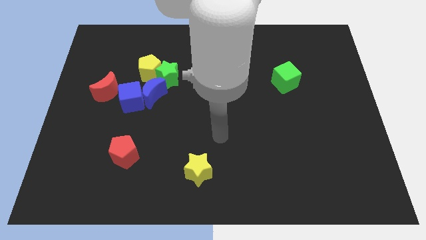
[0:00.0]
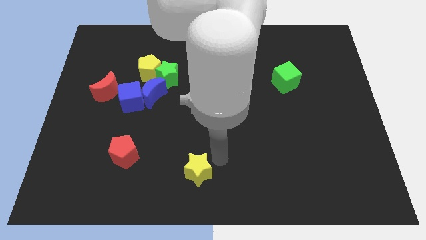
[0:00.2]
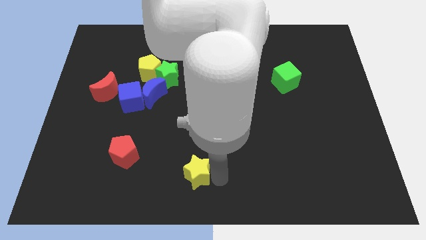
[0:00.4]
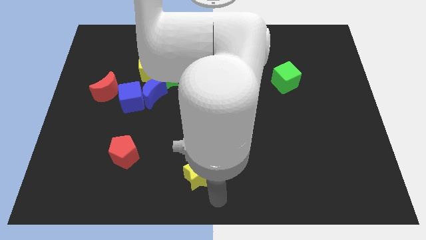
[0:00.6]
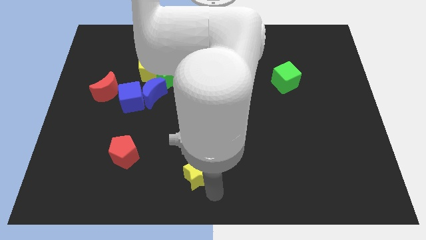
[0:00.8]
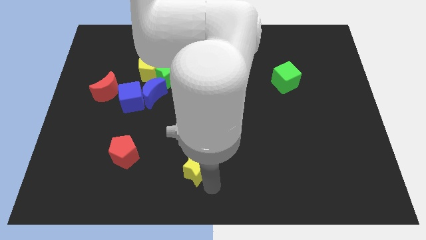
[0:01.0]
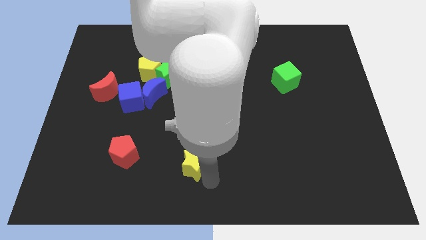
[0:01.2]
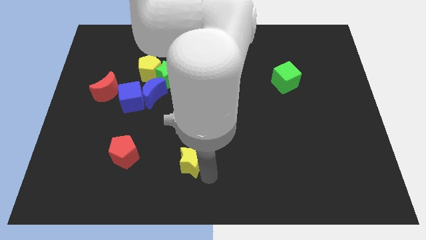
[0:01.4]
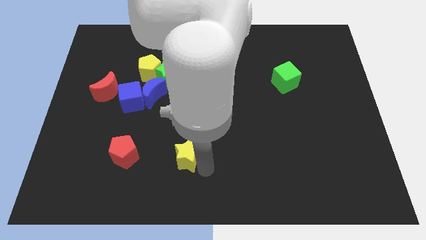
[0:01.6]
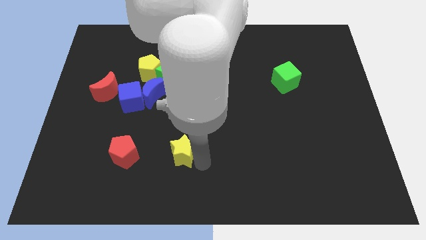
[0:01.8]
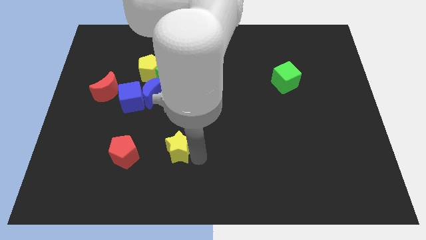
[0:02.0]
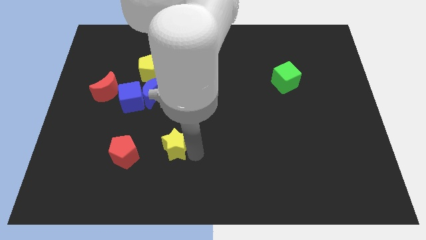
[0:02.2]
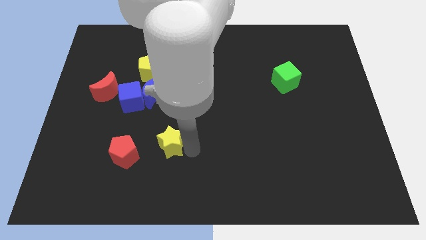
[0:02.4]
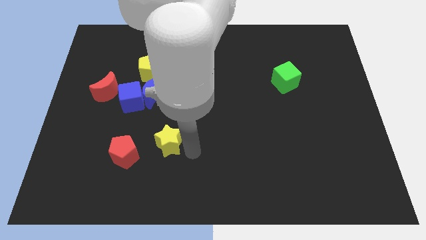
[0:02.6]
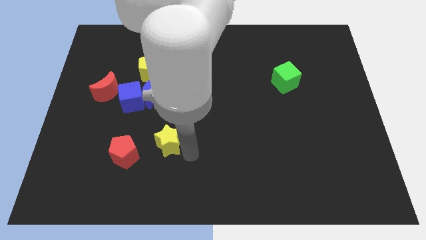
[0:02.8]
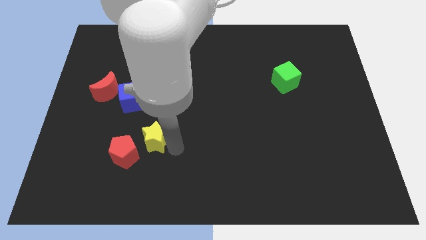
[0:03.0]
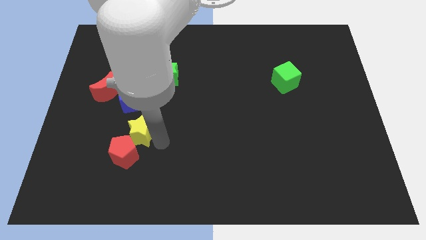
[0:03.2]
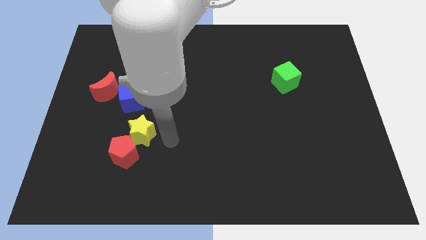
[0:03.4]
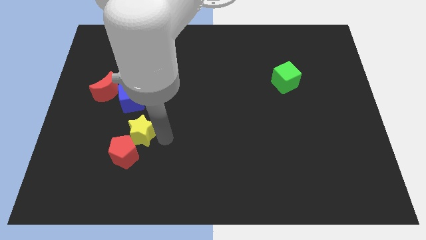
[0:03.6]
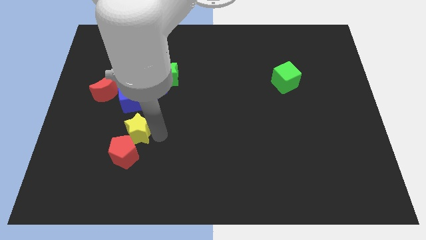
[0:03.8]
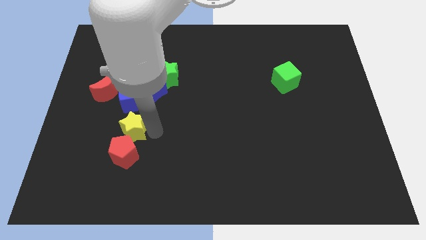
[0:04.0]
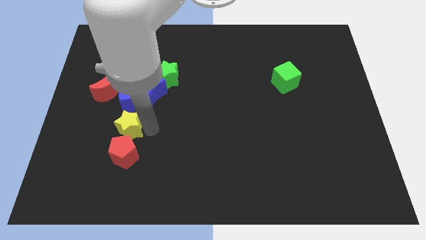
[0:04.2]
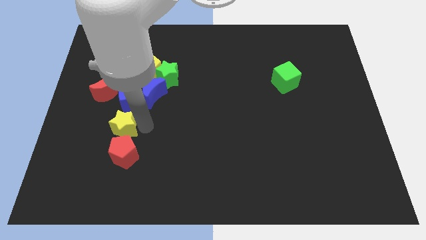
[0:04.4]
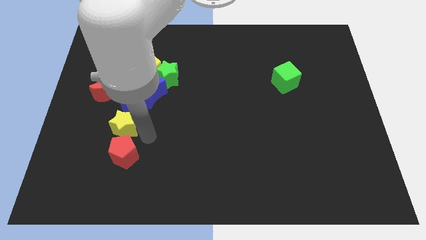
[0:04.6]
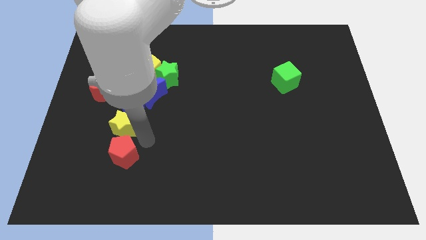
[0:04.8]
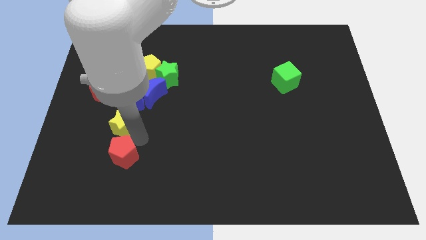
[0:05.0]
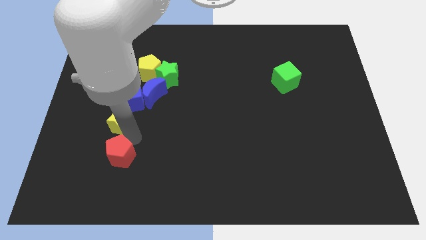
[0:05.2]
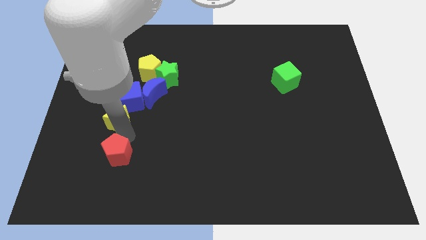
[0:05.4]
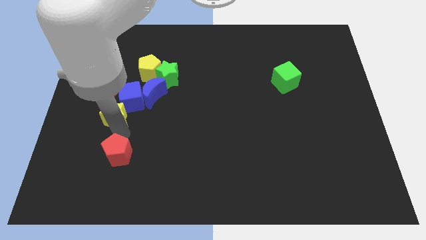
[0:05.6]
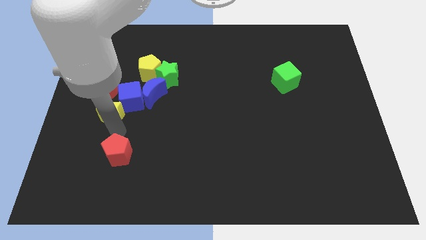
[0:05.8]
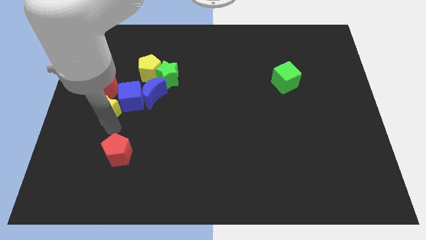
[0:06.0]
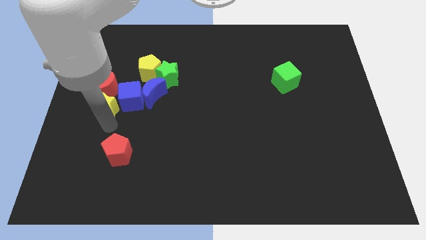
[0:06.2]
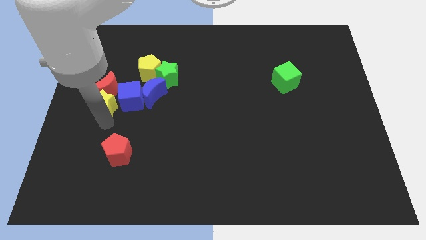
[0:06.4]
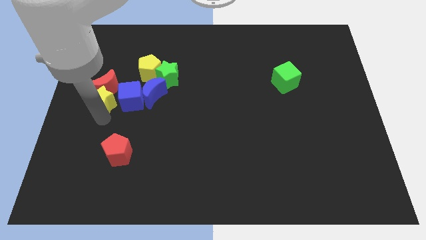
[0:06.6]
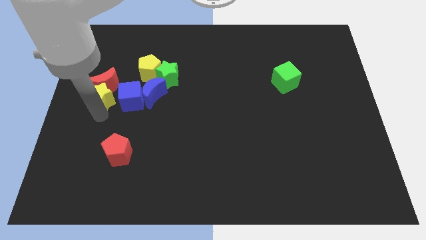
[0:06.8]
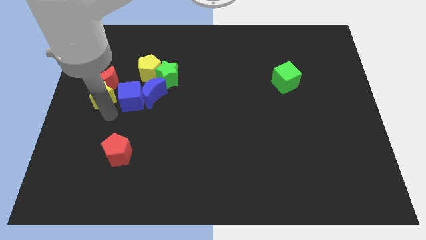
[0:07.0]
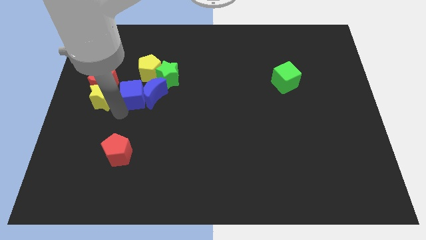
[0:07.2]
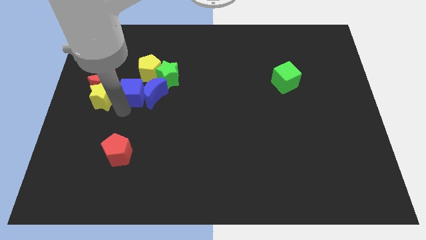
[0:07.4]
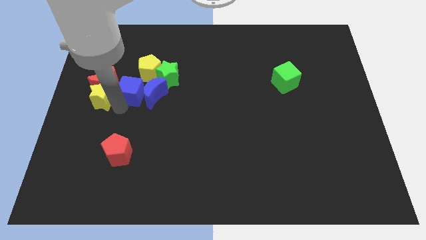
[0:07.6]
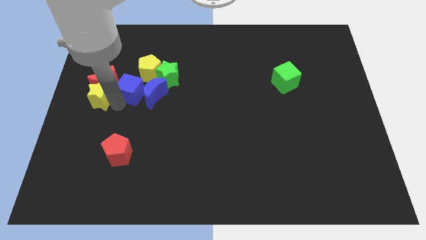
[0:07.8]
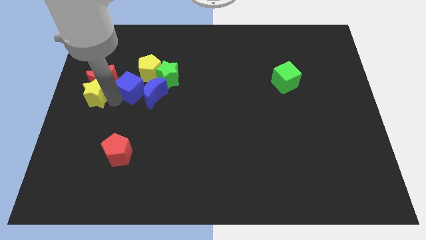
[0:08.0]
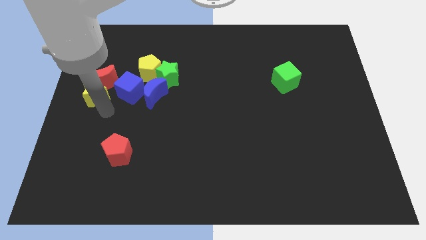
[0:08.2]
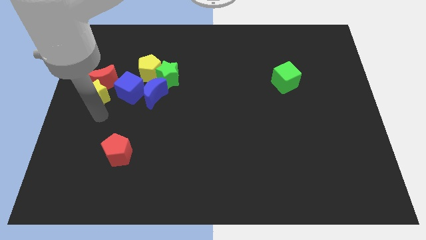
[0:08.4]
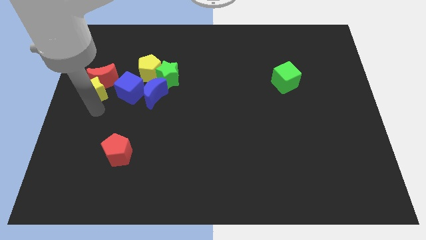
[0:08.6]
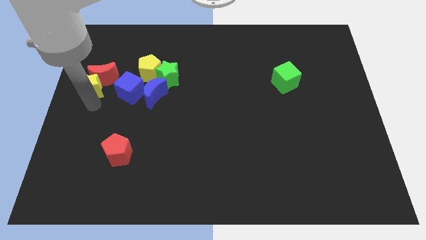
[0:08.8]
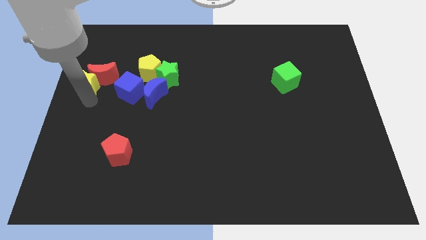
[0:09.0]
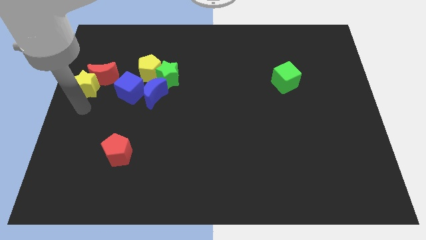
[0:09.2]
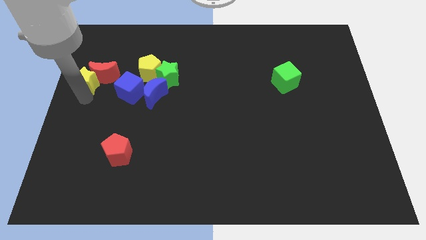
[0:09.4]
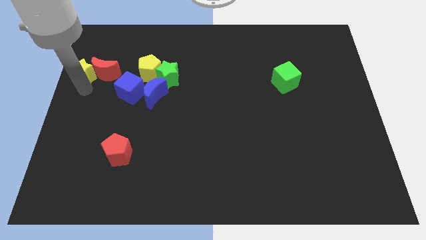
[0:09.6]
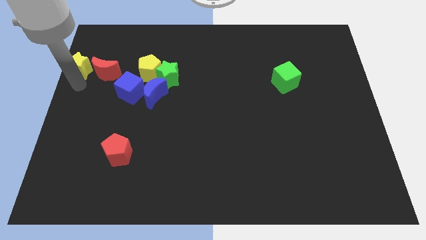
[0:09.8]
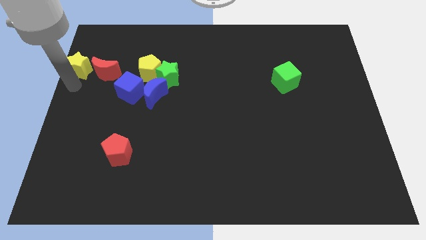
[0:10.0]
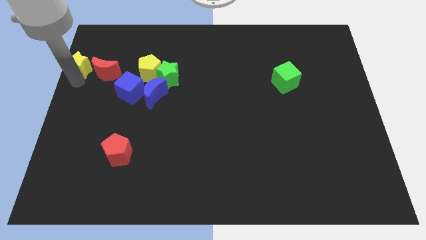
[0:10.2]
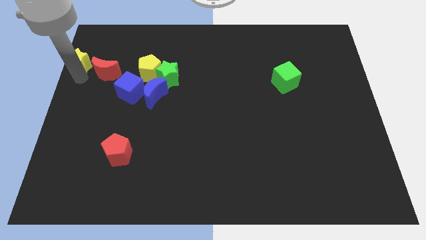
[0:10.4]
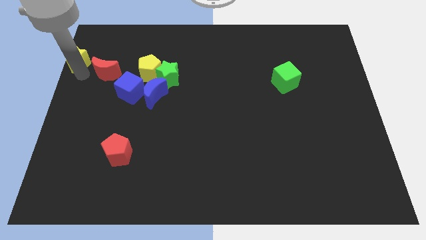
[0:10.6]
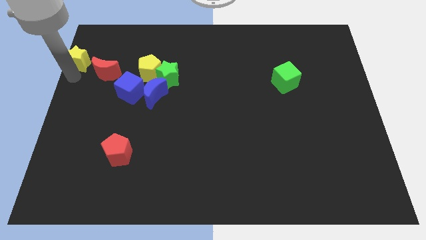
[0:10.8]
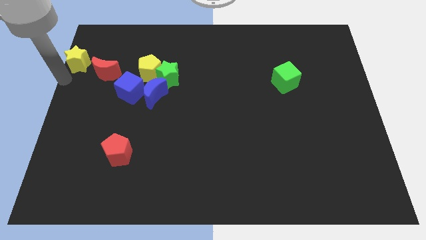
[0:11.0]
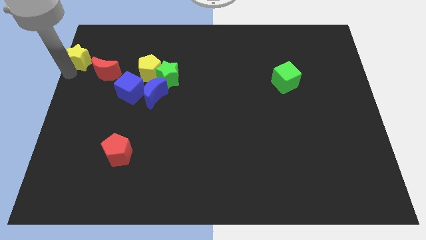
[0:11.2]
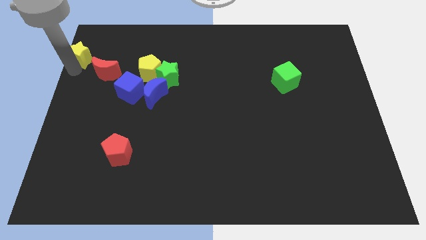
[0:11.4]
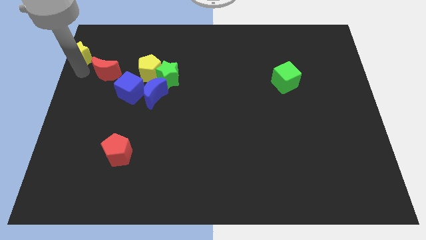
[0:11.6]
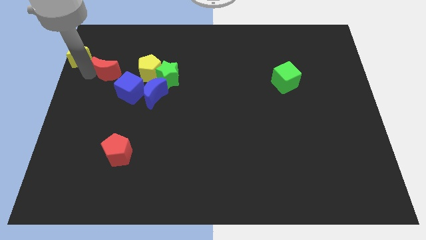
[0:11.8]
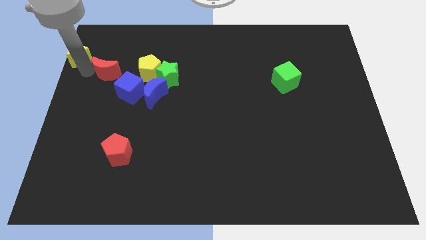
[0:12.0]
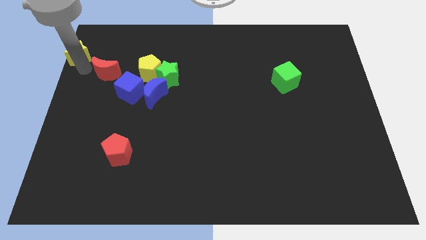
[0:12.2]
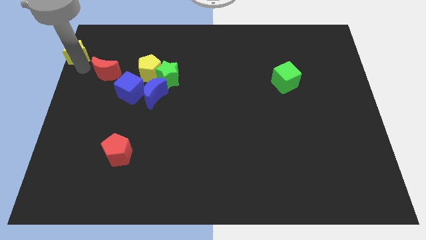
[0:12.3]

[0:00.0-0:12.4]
put the yellow star to the upper left corner

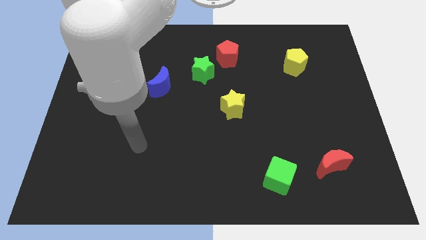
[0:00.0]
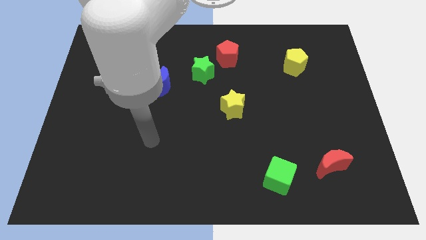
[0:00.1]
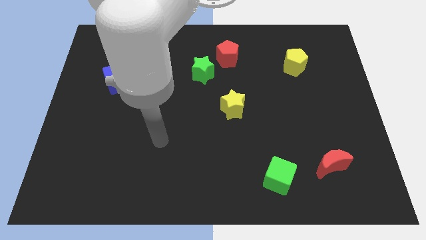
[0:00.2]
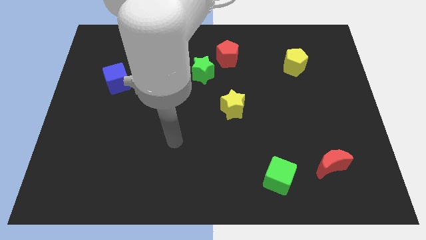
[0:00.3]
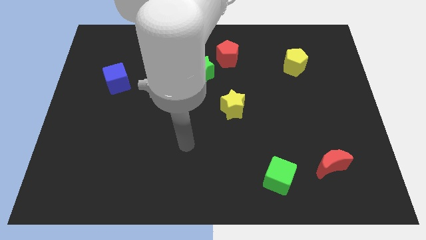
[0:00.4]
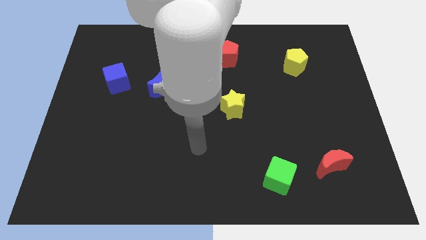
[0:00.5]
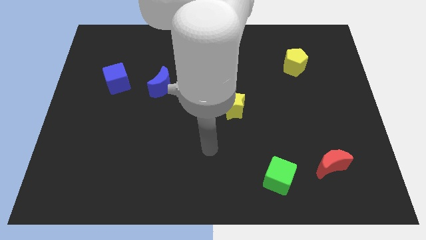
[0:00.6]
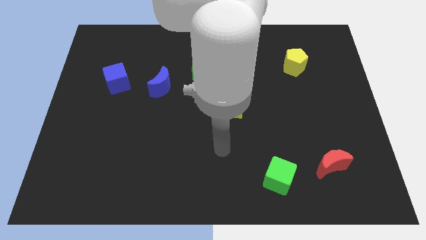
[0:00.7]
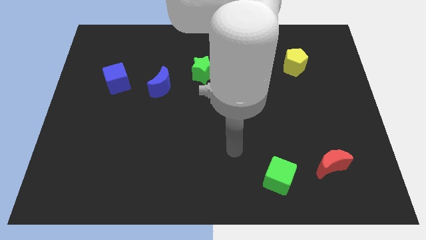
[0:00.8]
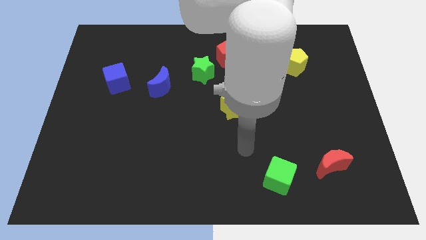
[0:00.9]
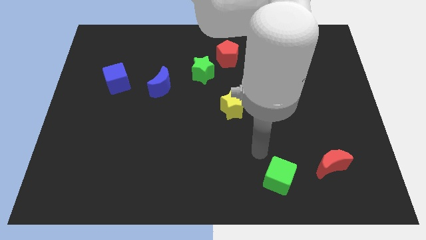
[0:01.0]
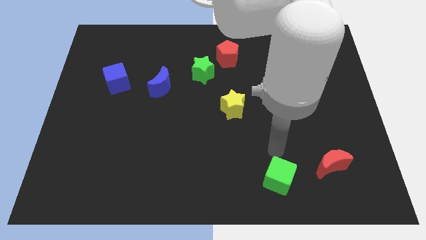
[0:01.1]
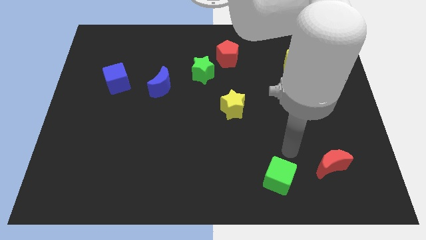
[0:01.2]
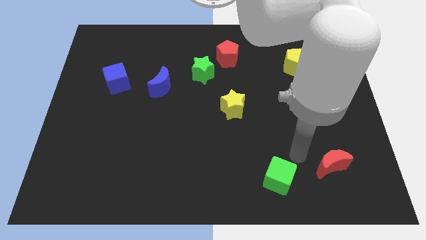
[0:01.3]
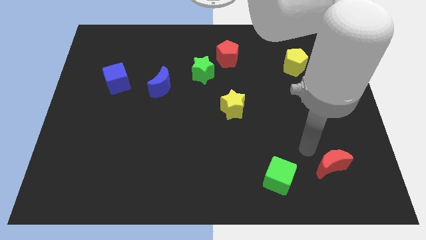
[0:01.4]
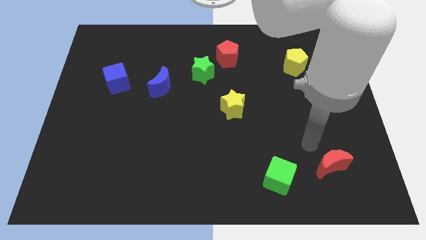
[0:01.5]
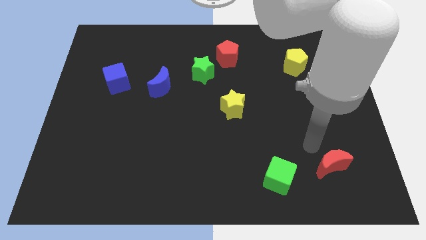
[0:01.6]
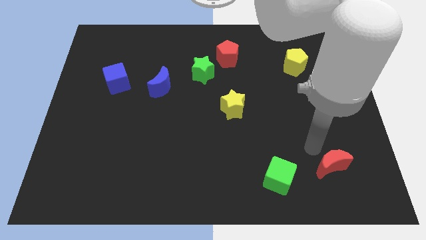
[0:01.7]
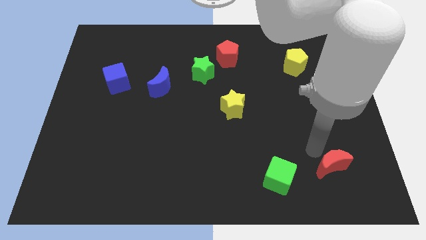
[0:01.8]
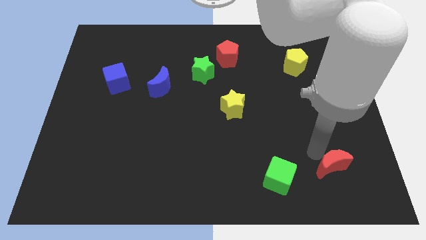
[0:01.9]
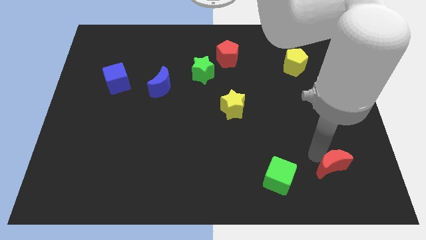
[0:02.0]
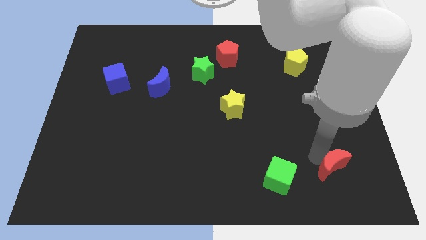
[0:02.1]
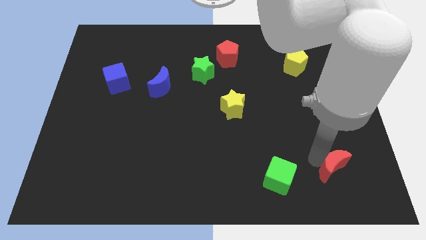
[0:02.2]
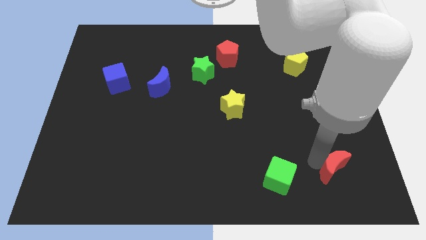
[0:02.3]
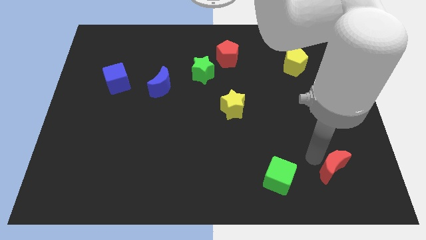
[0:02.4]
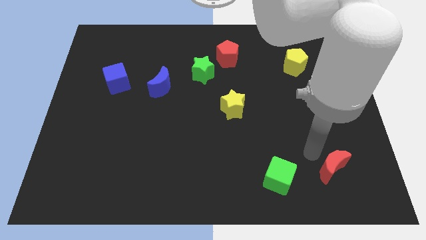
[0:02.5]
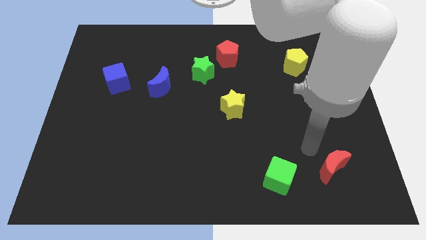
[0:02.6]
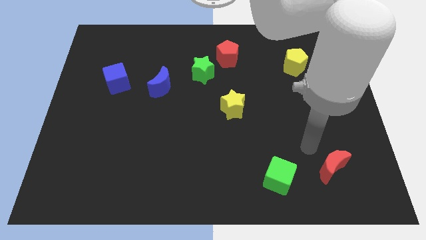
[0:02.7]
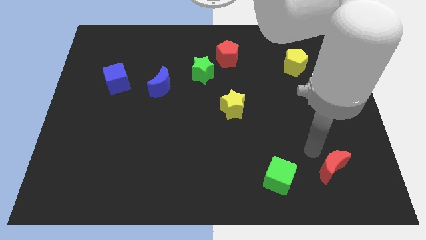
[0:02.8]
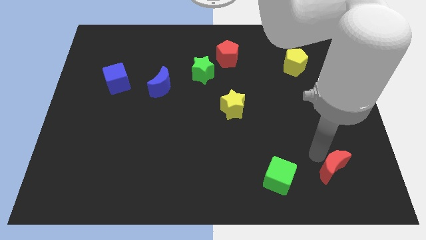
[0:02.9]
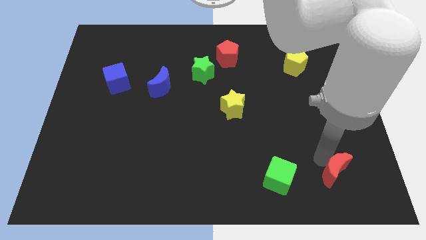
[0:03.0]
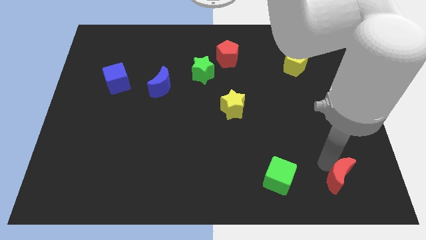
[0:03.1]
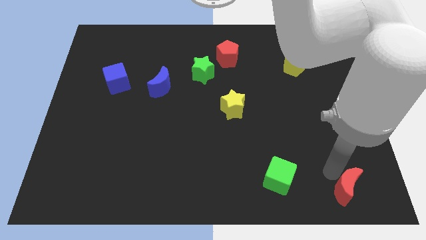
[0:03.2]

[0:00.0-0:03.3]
move the red moon to the bottom right
